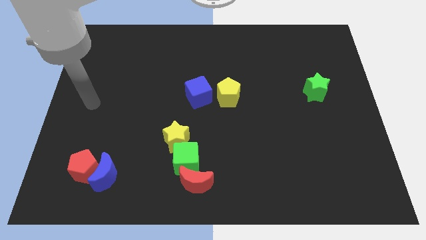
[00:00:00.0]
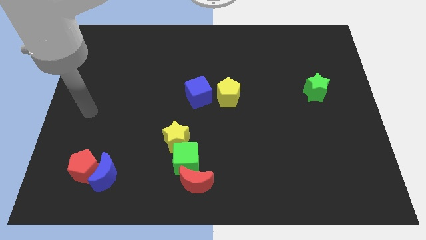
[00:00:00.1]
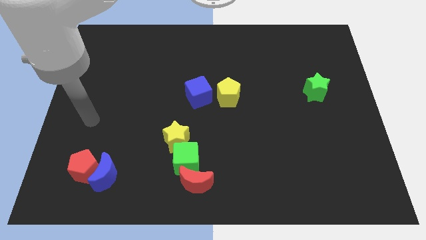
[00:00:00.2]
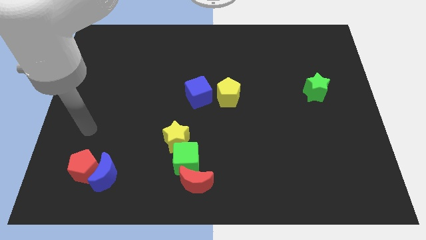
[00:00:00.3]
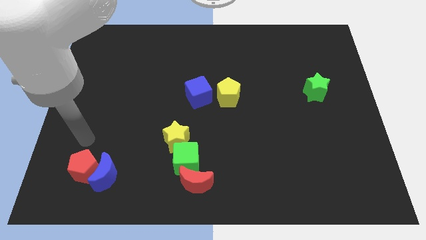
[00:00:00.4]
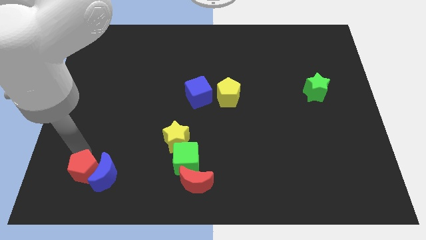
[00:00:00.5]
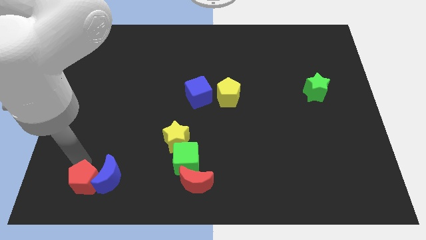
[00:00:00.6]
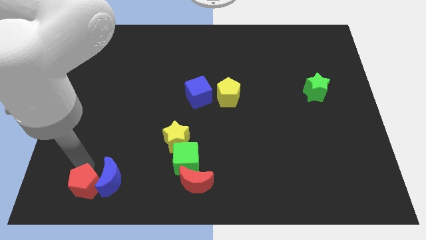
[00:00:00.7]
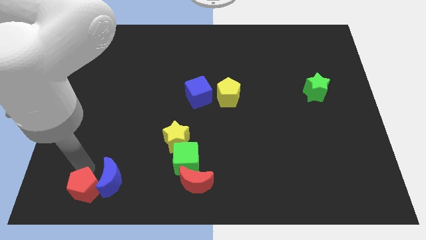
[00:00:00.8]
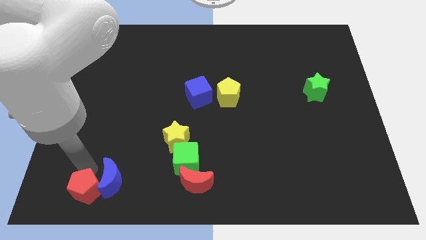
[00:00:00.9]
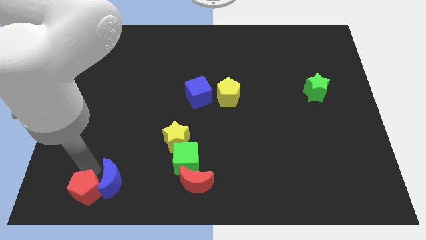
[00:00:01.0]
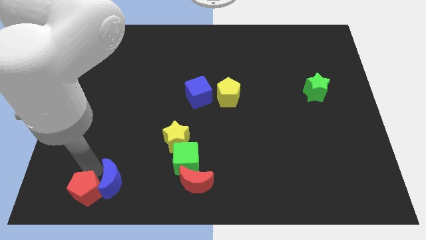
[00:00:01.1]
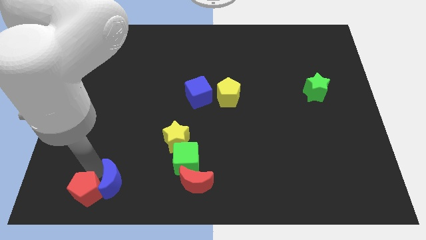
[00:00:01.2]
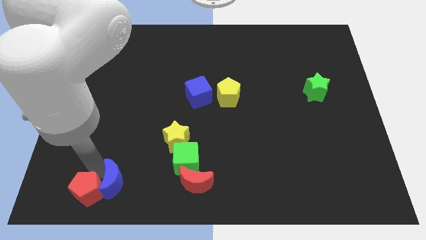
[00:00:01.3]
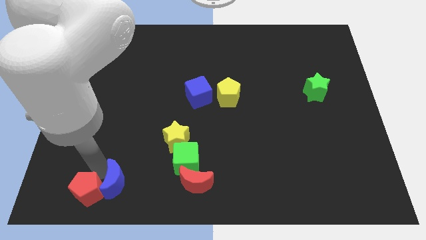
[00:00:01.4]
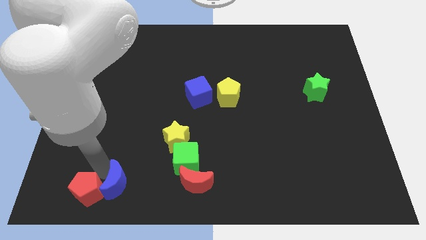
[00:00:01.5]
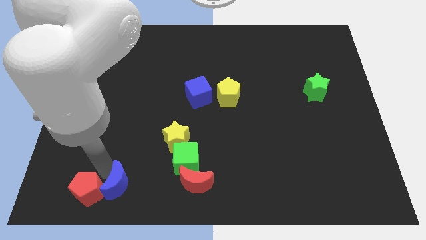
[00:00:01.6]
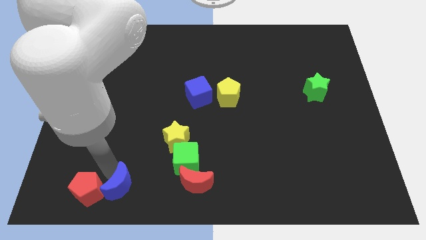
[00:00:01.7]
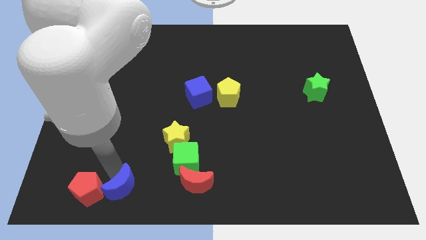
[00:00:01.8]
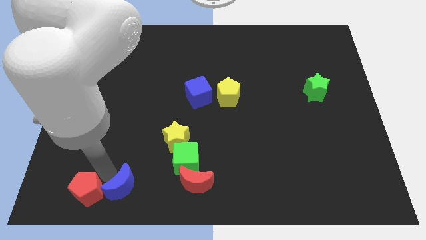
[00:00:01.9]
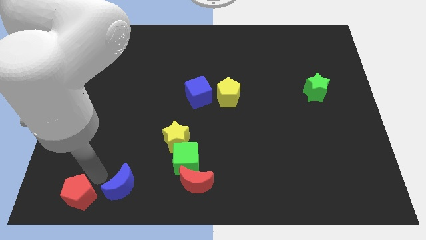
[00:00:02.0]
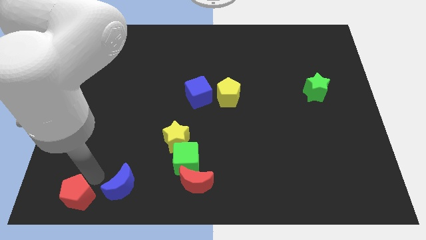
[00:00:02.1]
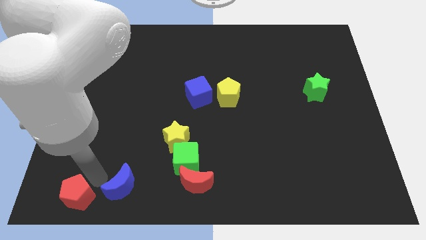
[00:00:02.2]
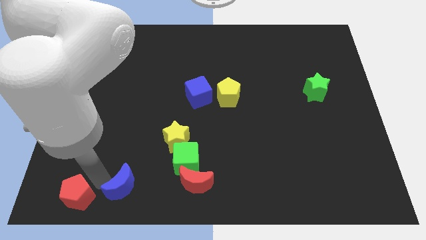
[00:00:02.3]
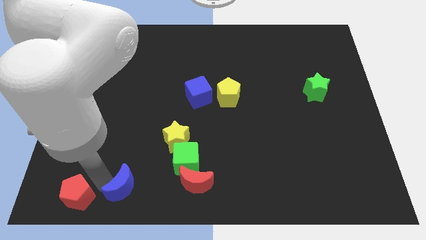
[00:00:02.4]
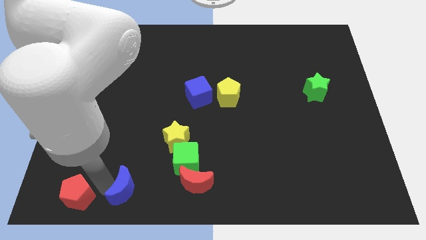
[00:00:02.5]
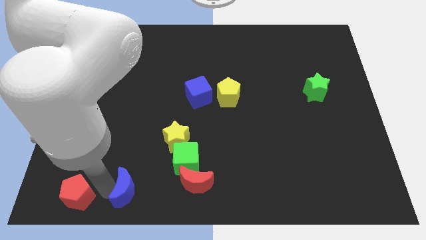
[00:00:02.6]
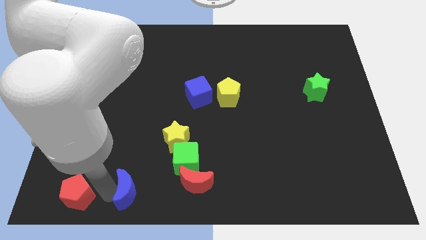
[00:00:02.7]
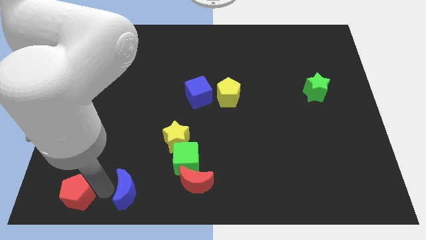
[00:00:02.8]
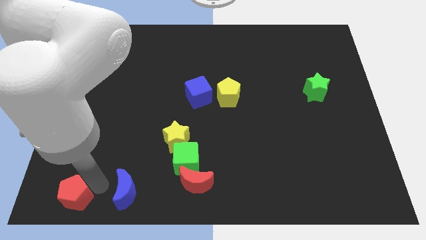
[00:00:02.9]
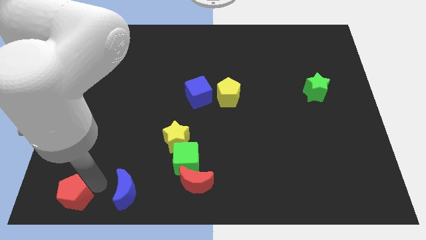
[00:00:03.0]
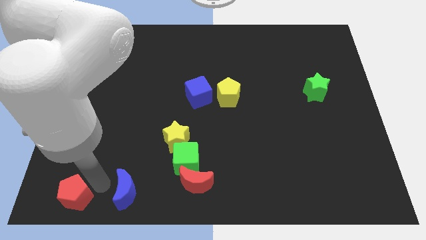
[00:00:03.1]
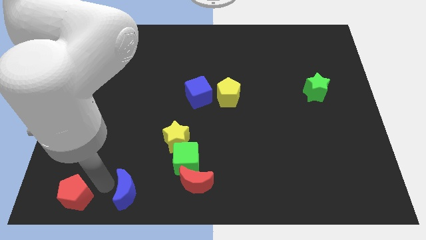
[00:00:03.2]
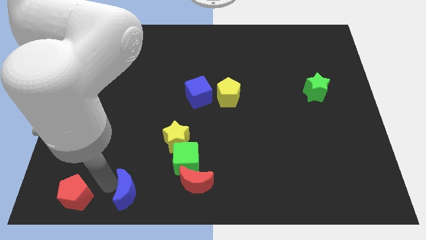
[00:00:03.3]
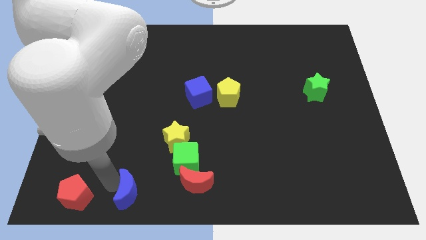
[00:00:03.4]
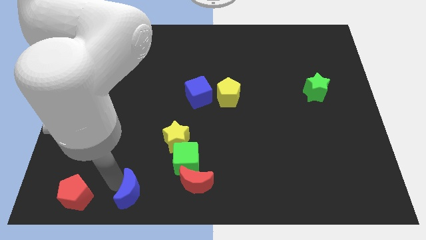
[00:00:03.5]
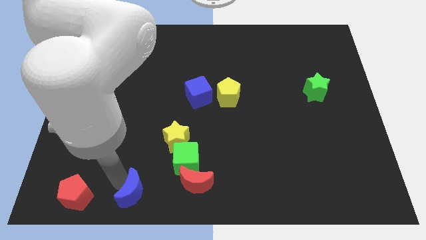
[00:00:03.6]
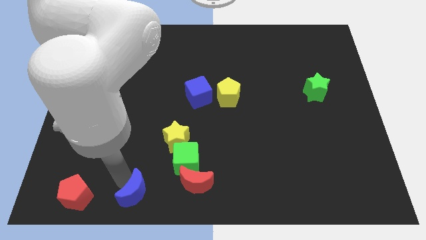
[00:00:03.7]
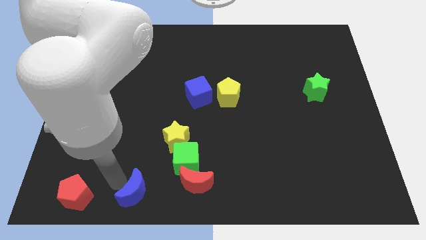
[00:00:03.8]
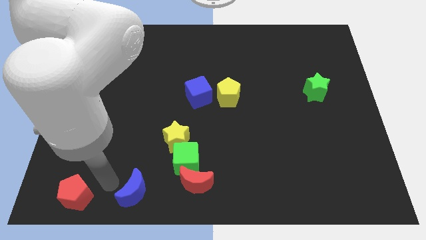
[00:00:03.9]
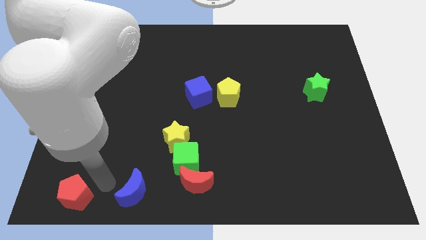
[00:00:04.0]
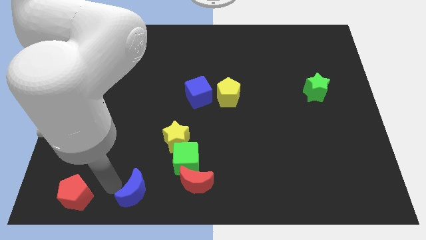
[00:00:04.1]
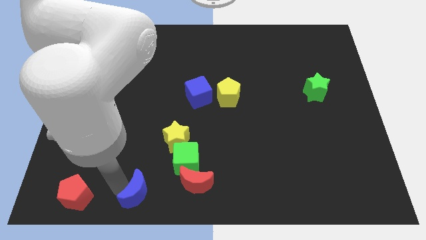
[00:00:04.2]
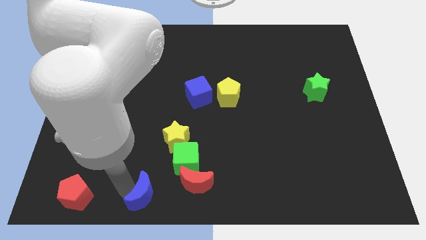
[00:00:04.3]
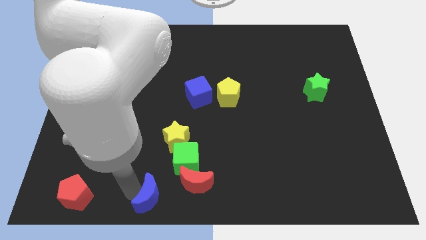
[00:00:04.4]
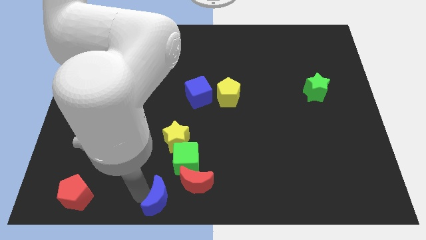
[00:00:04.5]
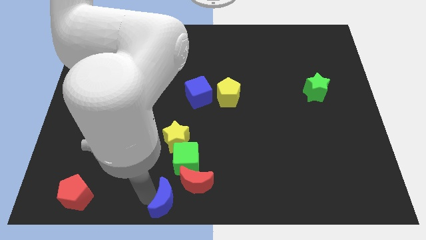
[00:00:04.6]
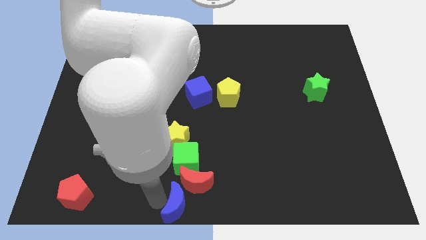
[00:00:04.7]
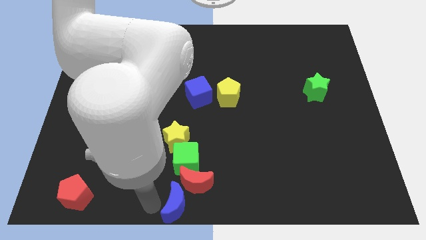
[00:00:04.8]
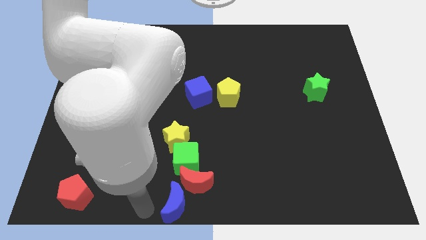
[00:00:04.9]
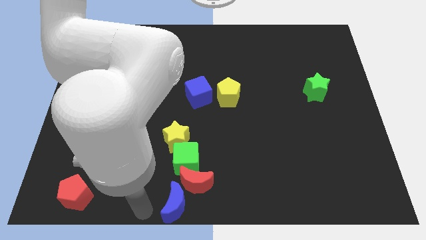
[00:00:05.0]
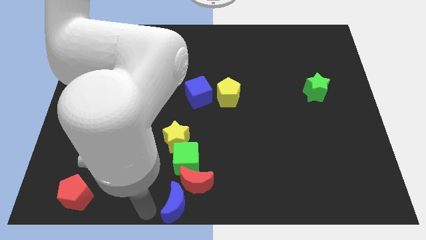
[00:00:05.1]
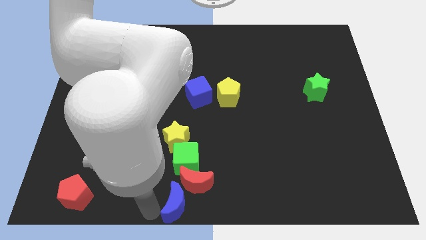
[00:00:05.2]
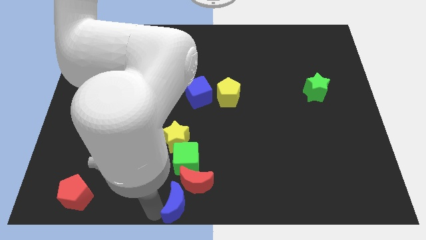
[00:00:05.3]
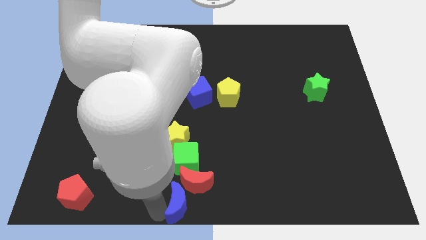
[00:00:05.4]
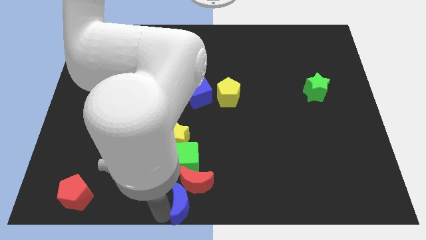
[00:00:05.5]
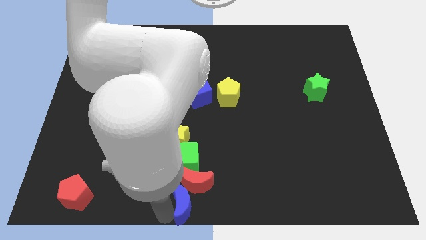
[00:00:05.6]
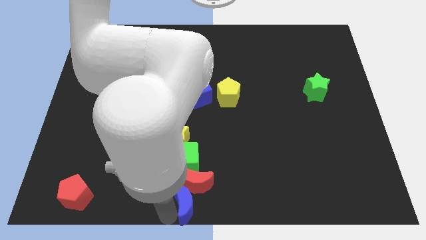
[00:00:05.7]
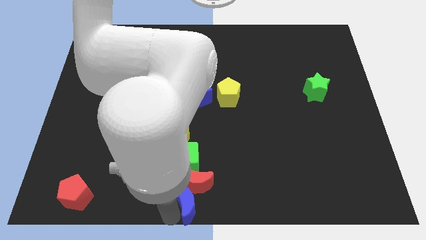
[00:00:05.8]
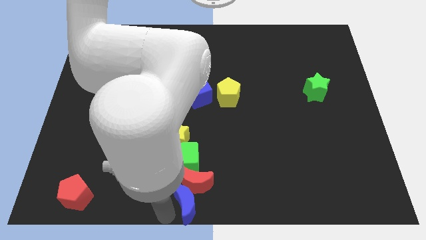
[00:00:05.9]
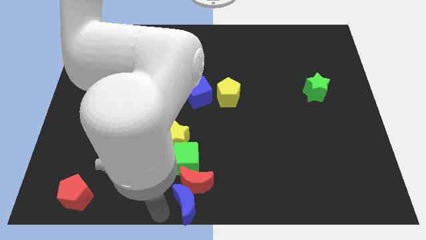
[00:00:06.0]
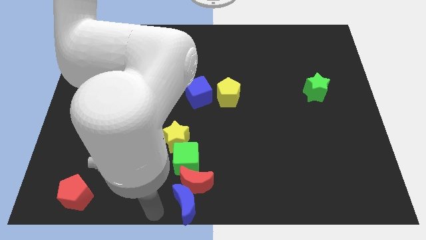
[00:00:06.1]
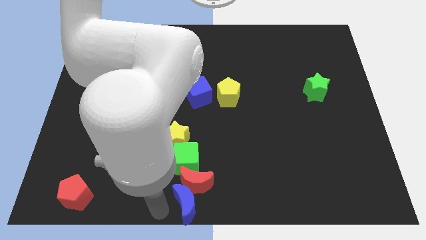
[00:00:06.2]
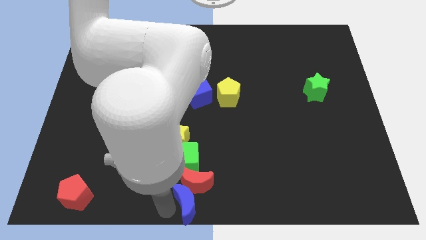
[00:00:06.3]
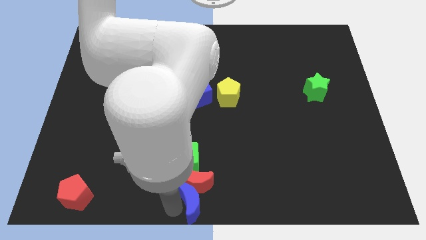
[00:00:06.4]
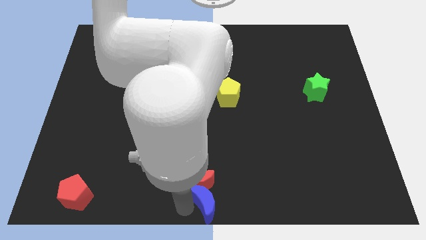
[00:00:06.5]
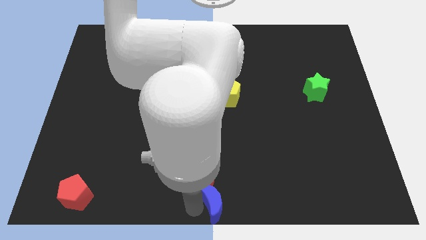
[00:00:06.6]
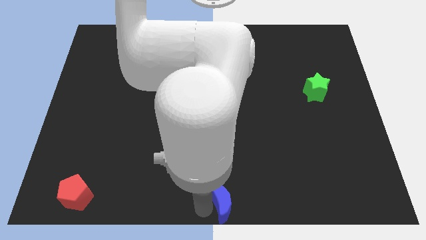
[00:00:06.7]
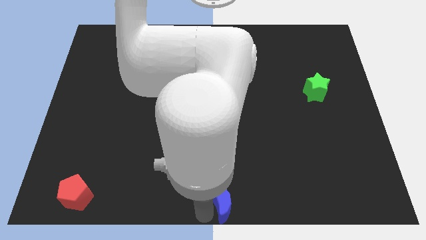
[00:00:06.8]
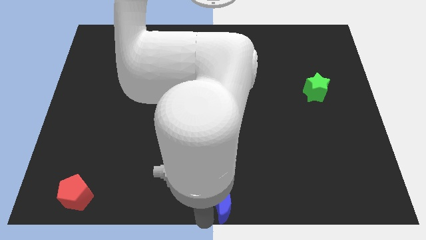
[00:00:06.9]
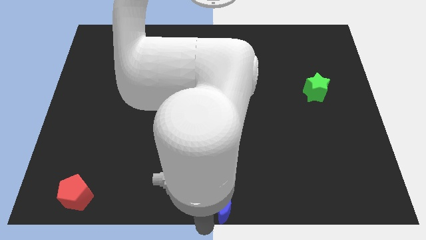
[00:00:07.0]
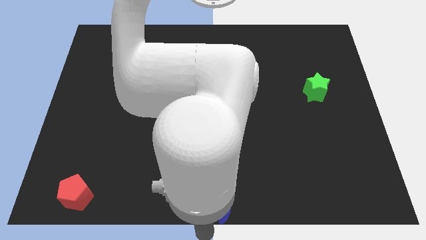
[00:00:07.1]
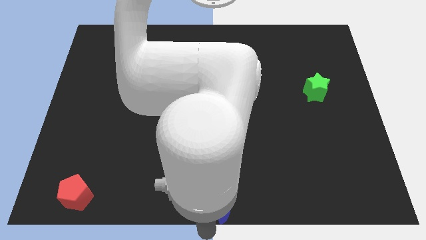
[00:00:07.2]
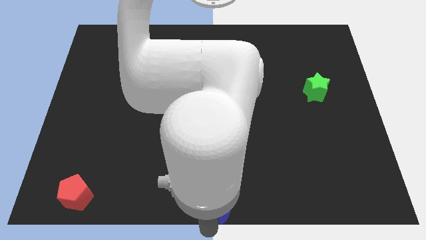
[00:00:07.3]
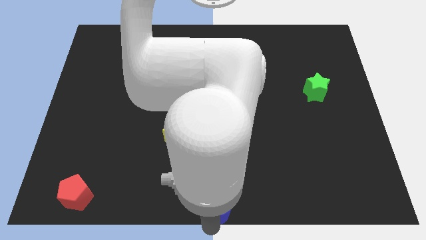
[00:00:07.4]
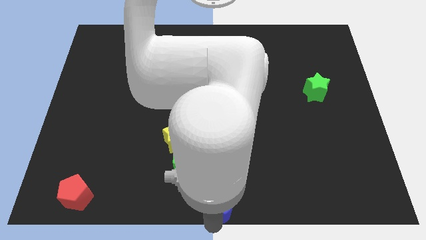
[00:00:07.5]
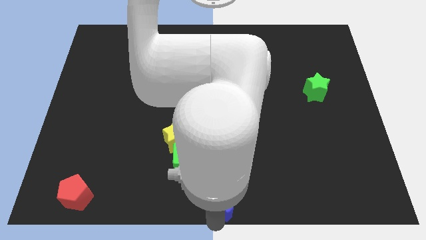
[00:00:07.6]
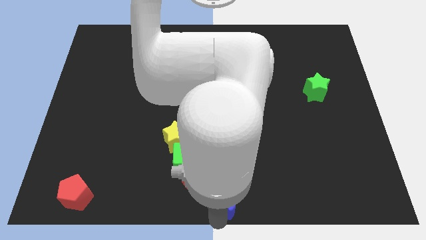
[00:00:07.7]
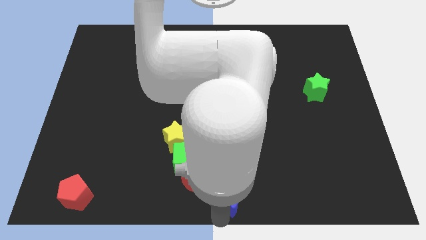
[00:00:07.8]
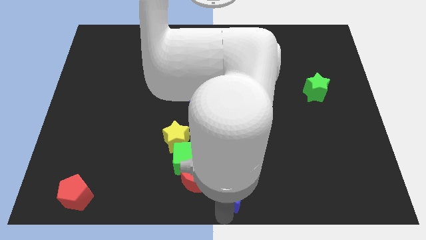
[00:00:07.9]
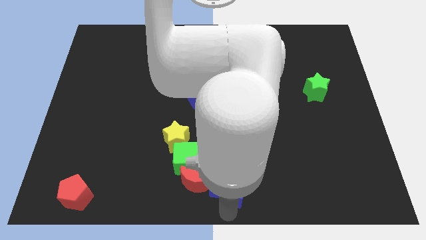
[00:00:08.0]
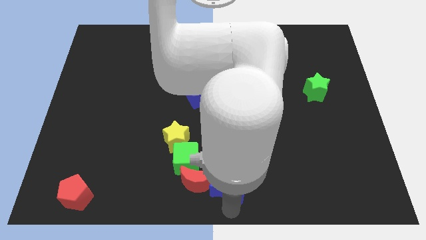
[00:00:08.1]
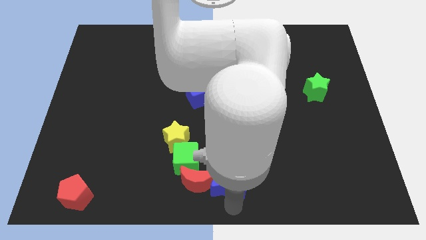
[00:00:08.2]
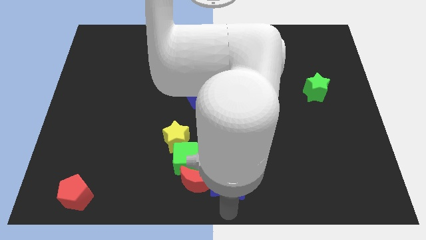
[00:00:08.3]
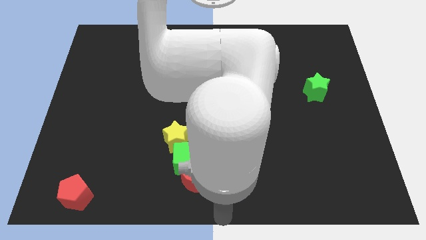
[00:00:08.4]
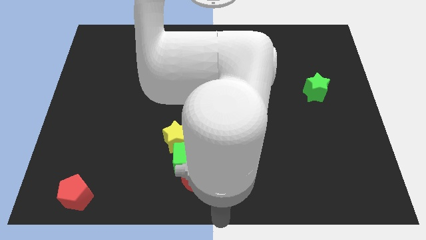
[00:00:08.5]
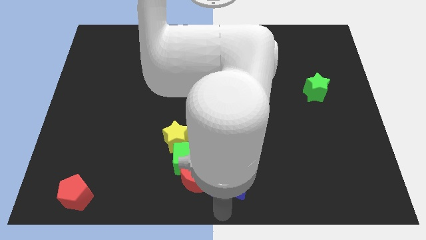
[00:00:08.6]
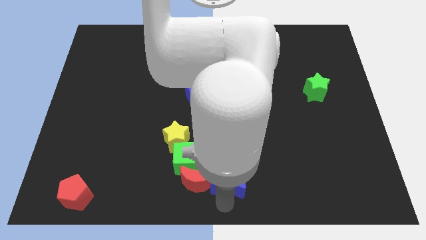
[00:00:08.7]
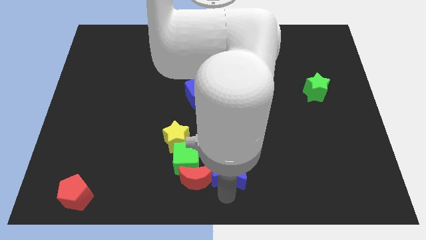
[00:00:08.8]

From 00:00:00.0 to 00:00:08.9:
slide the blue moon just right of the green cube
